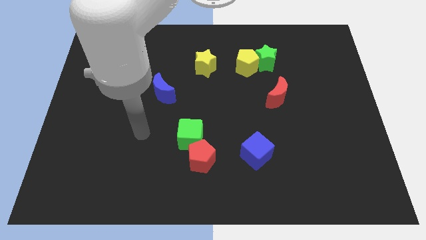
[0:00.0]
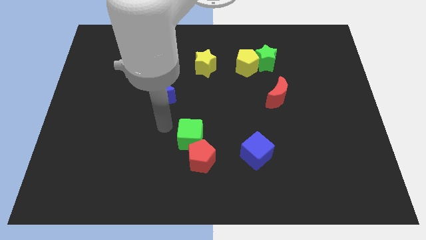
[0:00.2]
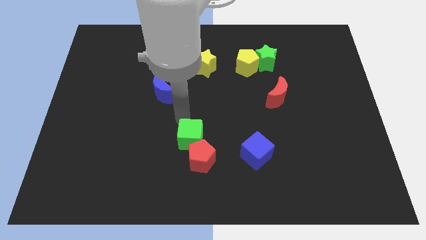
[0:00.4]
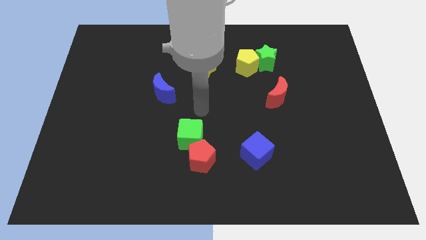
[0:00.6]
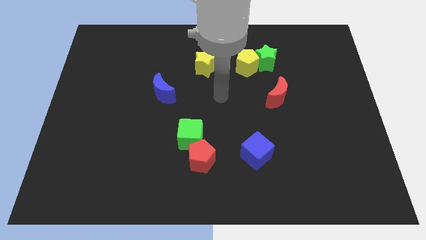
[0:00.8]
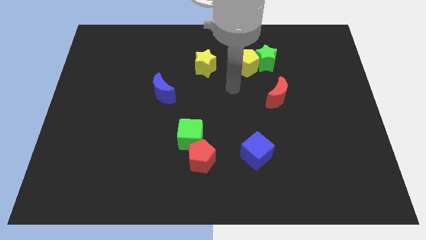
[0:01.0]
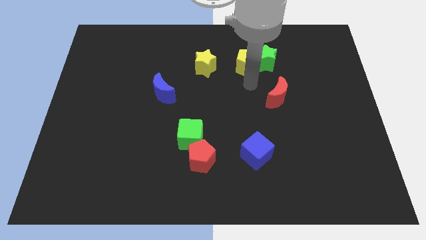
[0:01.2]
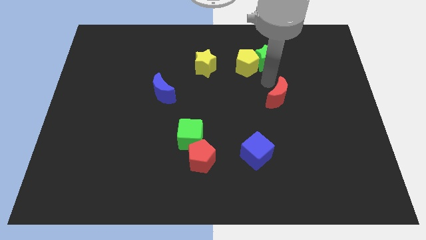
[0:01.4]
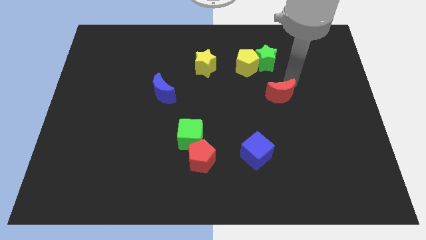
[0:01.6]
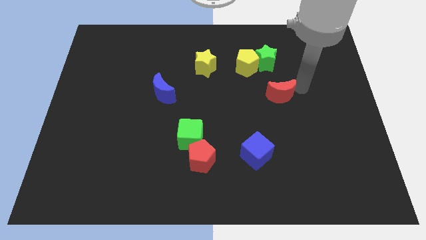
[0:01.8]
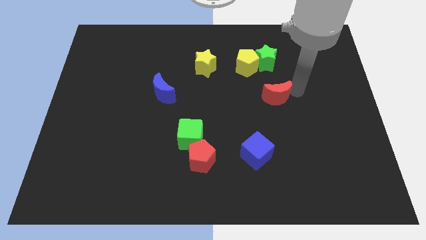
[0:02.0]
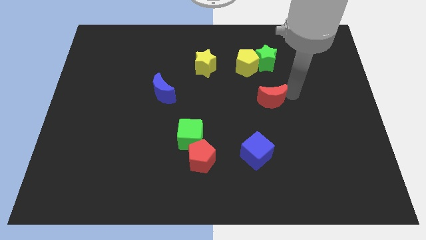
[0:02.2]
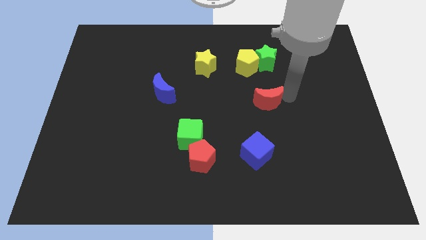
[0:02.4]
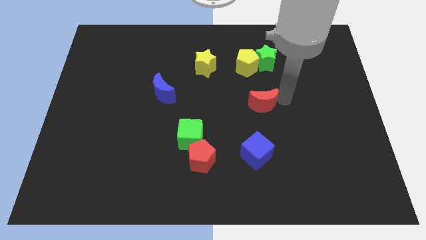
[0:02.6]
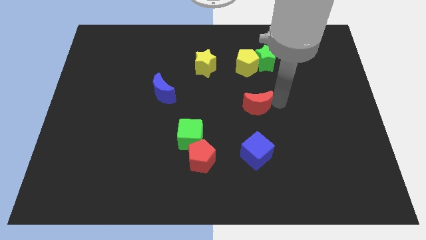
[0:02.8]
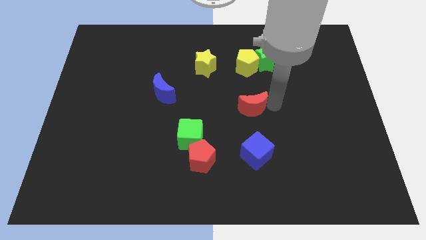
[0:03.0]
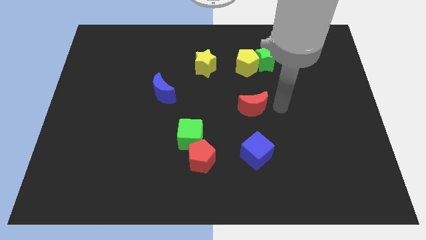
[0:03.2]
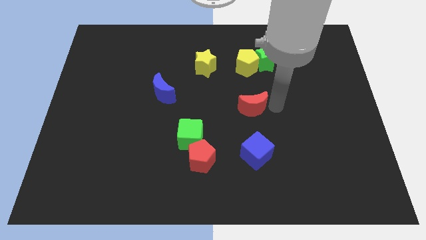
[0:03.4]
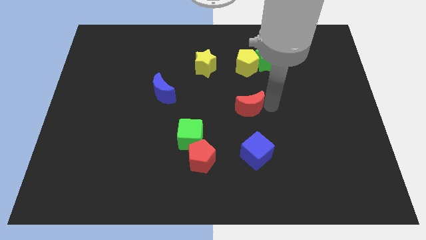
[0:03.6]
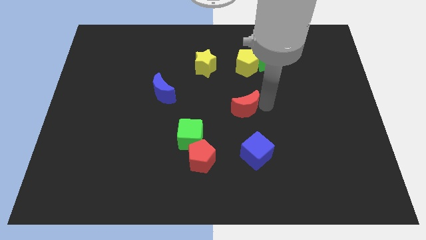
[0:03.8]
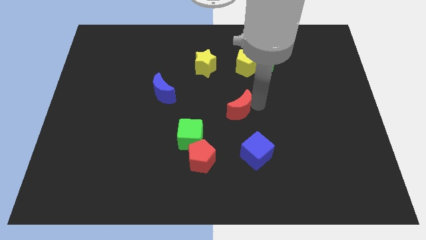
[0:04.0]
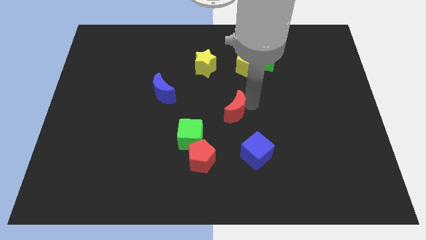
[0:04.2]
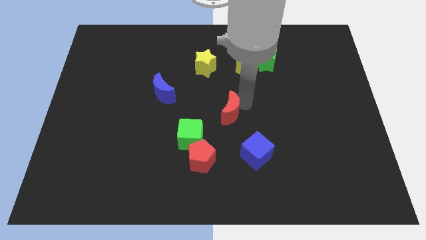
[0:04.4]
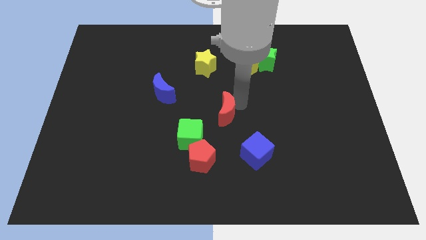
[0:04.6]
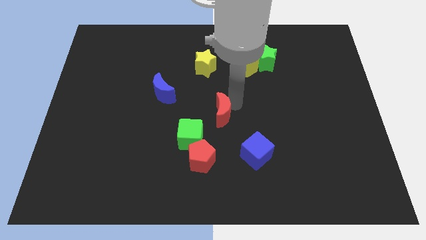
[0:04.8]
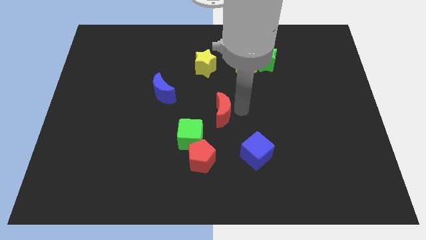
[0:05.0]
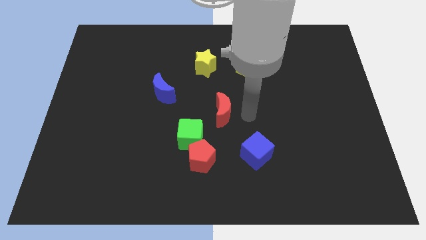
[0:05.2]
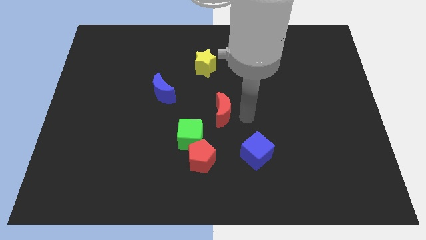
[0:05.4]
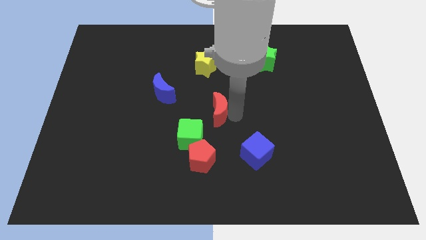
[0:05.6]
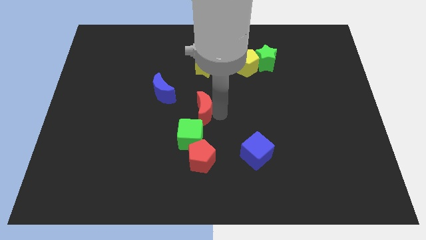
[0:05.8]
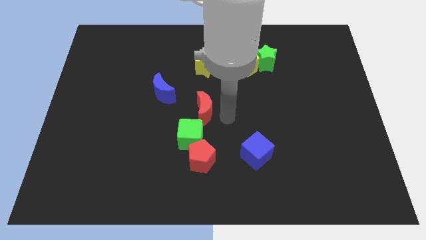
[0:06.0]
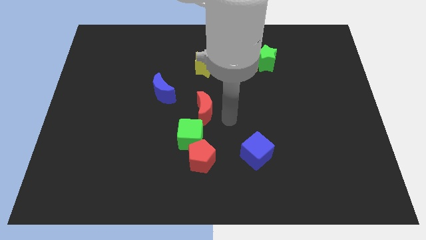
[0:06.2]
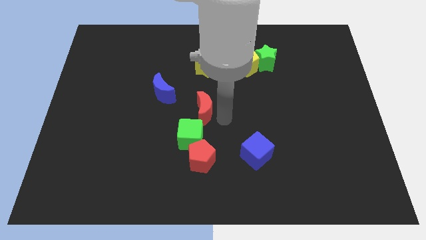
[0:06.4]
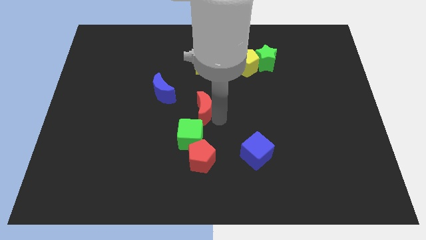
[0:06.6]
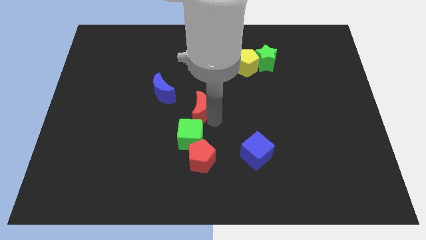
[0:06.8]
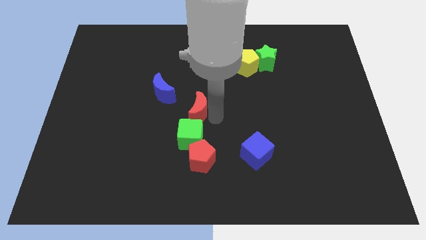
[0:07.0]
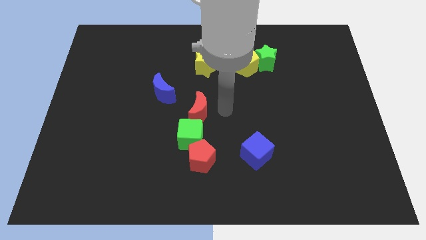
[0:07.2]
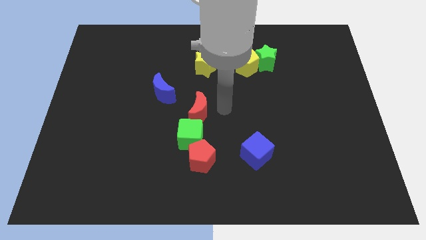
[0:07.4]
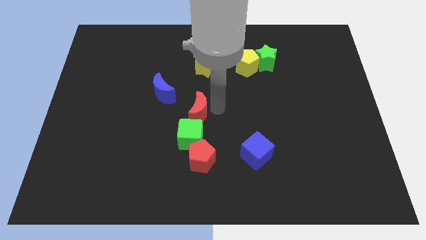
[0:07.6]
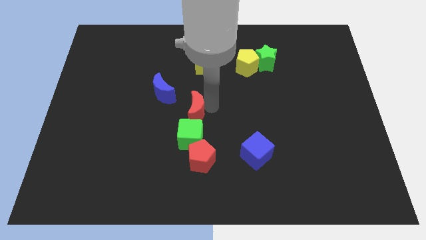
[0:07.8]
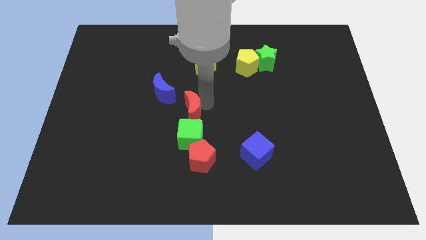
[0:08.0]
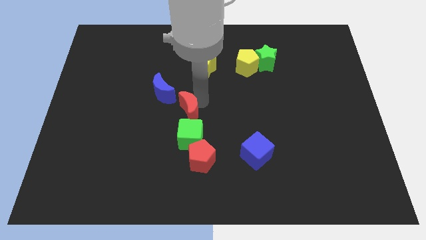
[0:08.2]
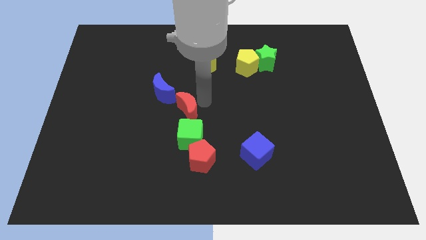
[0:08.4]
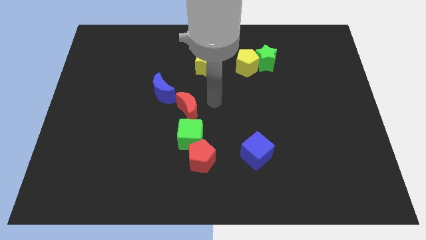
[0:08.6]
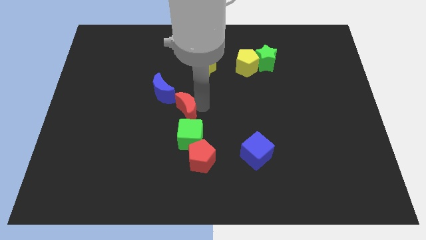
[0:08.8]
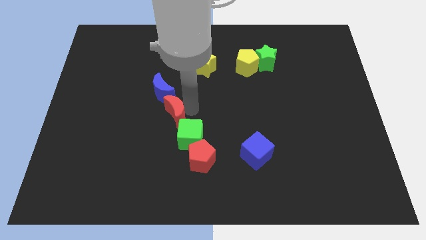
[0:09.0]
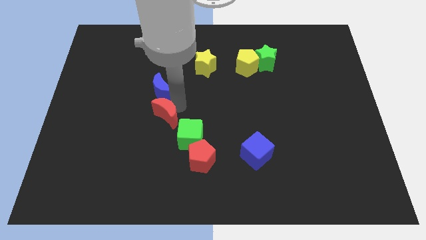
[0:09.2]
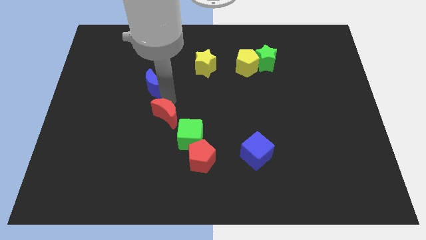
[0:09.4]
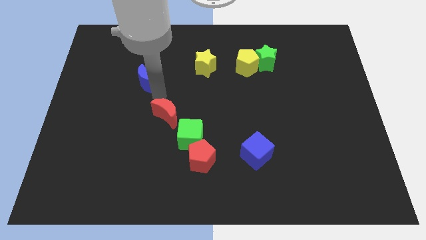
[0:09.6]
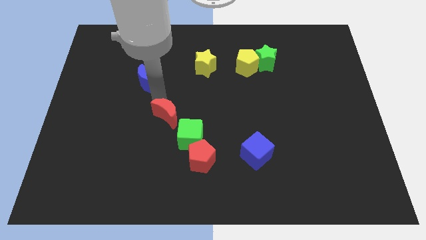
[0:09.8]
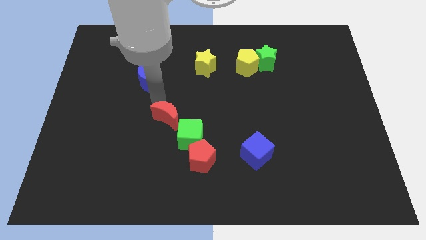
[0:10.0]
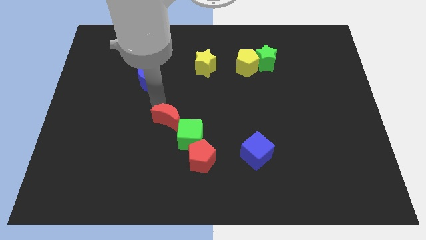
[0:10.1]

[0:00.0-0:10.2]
put the red moon to the top left side of the red pentagon

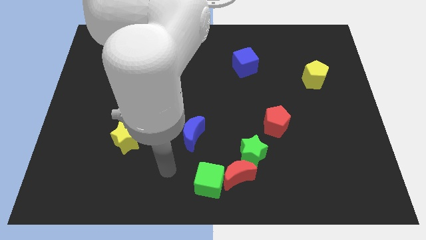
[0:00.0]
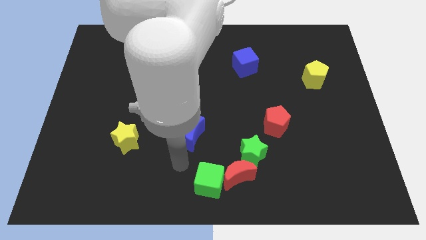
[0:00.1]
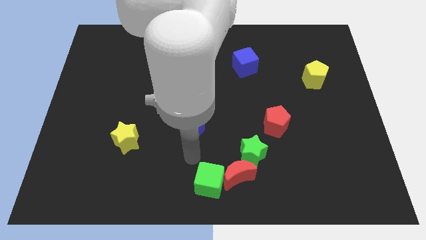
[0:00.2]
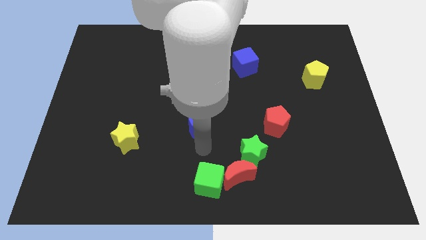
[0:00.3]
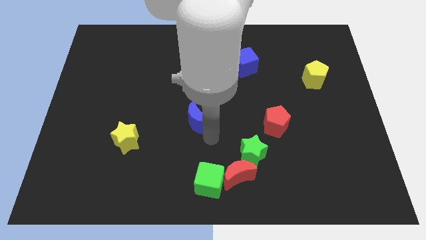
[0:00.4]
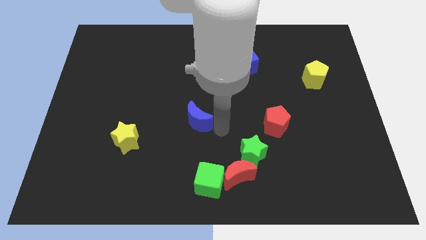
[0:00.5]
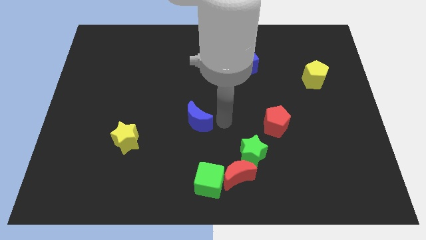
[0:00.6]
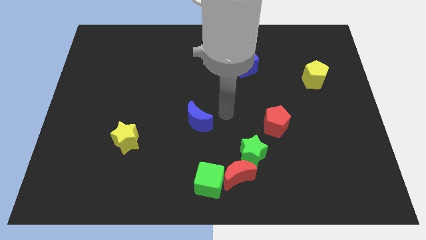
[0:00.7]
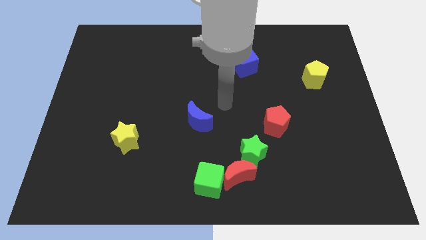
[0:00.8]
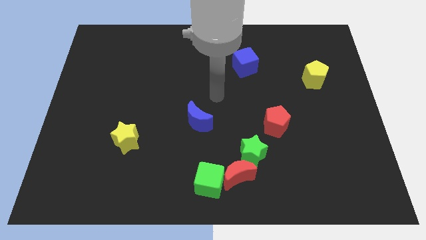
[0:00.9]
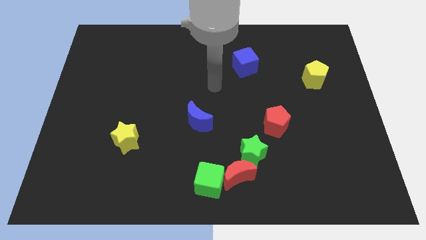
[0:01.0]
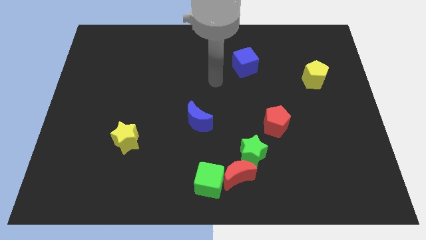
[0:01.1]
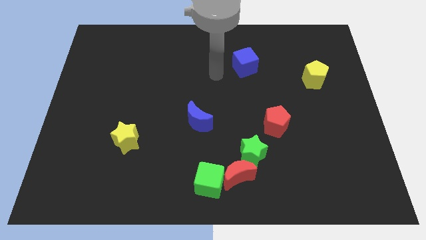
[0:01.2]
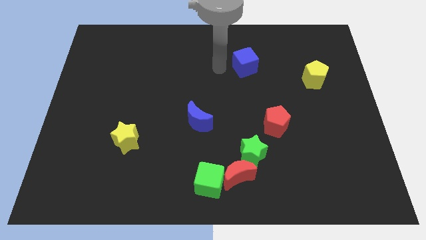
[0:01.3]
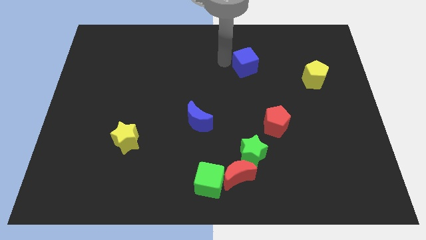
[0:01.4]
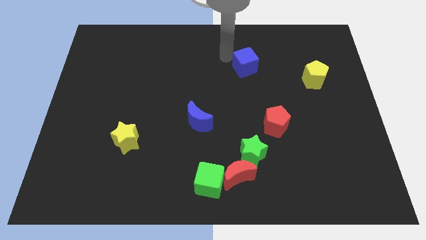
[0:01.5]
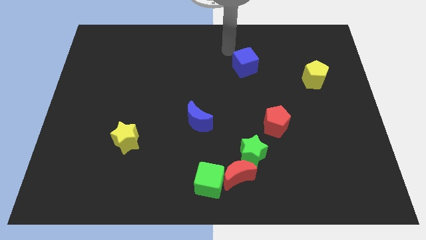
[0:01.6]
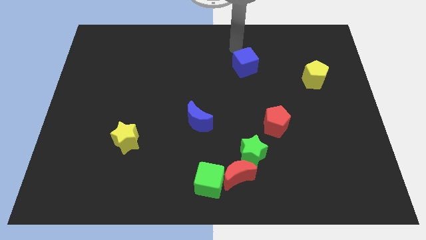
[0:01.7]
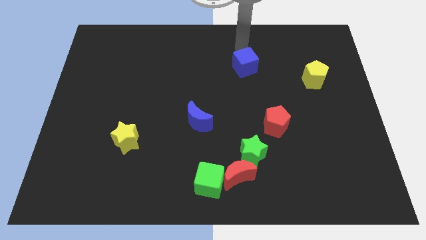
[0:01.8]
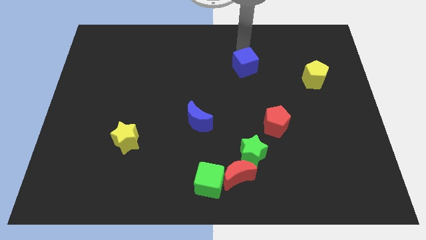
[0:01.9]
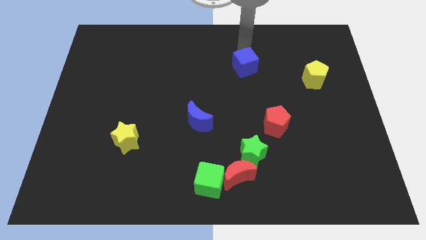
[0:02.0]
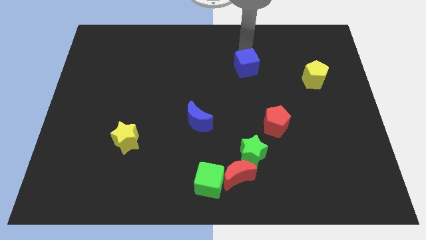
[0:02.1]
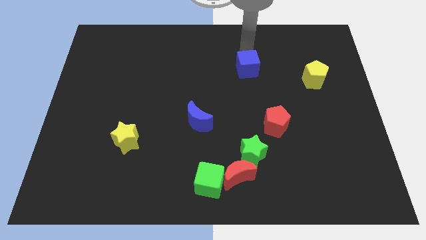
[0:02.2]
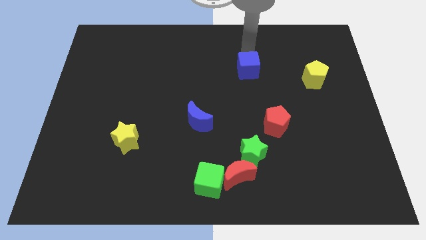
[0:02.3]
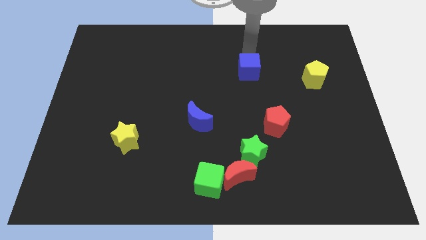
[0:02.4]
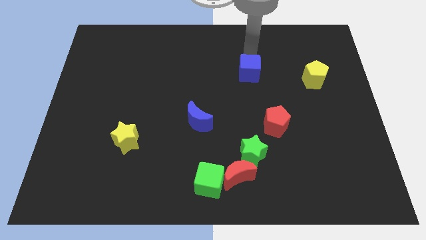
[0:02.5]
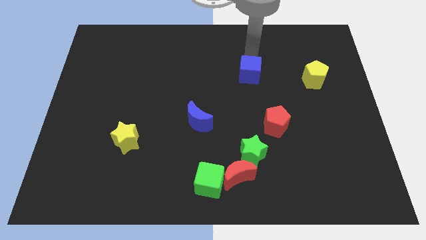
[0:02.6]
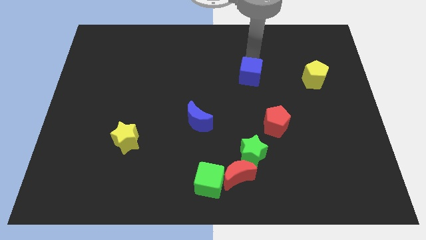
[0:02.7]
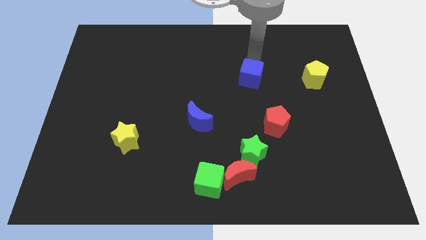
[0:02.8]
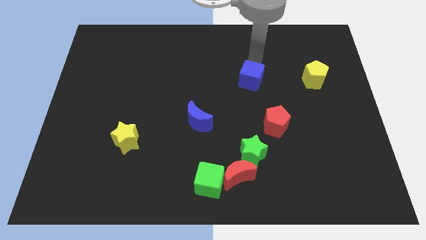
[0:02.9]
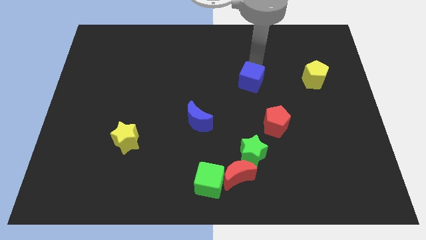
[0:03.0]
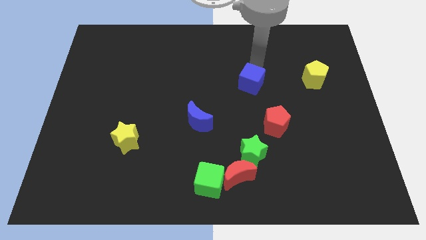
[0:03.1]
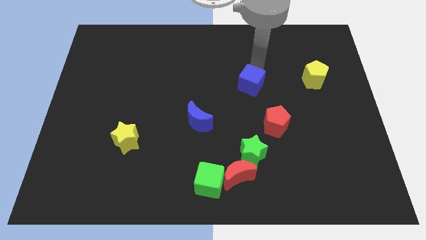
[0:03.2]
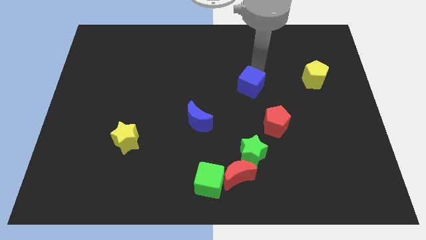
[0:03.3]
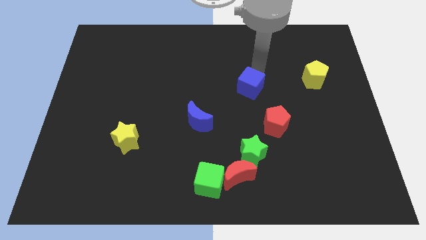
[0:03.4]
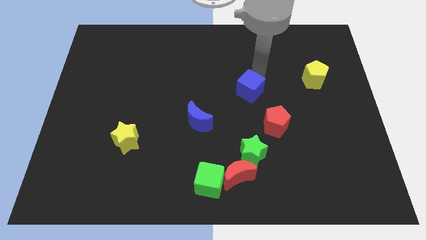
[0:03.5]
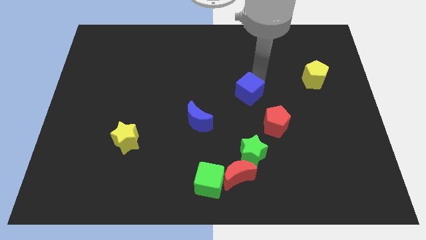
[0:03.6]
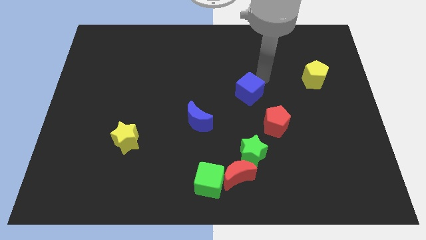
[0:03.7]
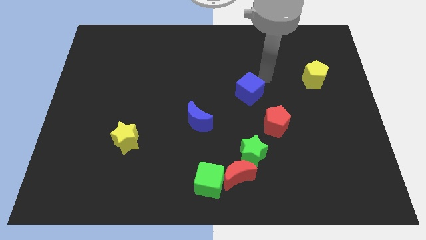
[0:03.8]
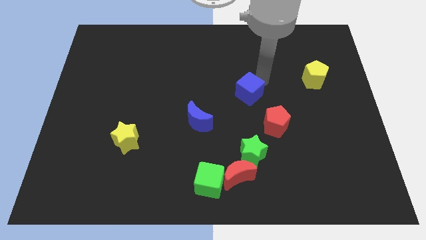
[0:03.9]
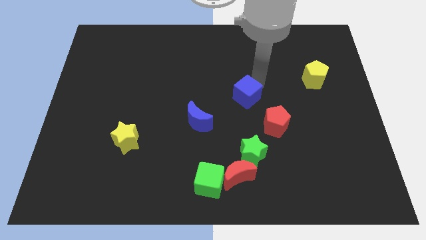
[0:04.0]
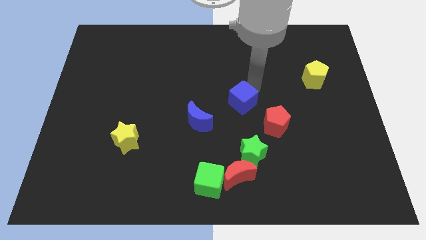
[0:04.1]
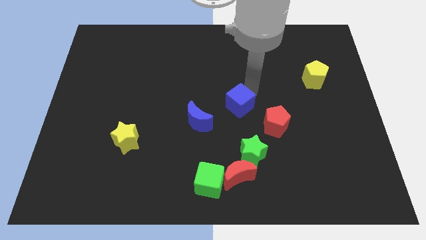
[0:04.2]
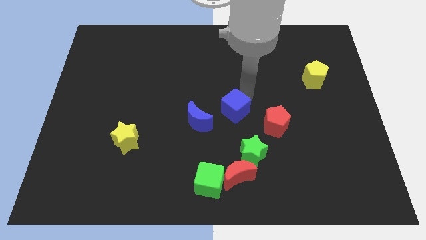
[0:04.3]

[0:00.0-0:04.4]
move the blue cube to the left of the red pentagon
